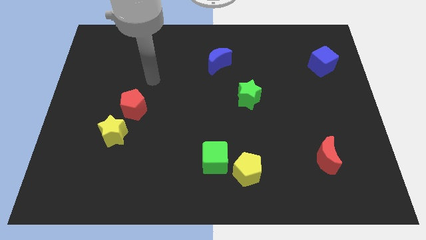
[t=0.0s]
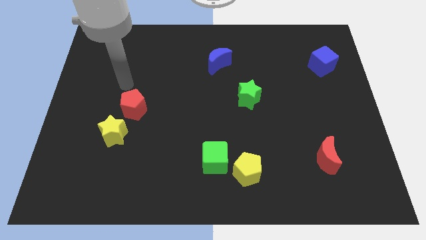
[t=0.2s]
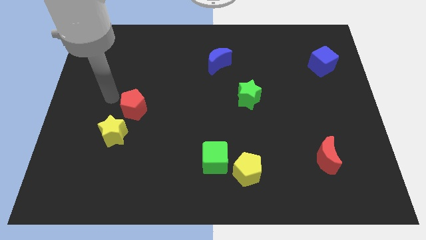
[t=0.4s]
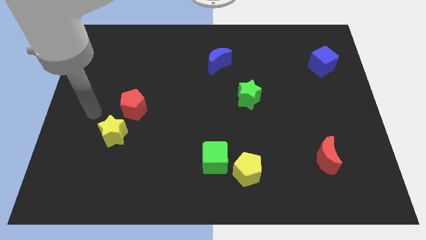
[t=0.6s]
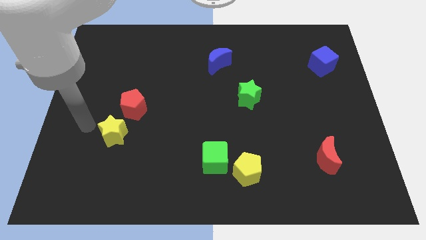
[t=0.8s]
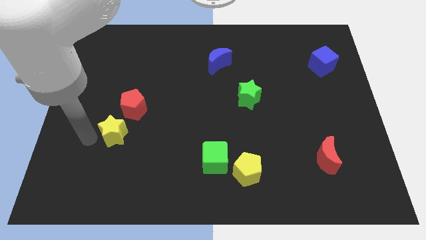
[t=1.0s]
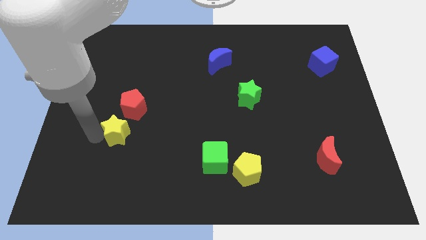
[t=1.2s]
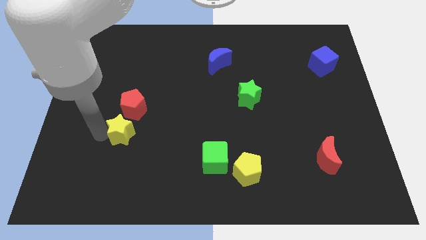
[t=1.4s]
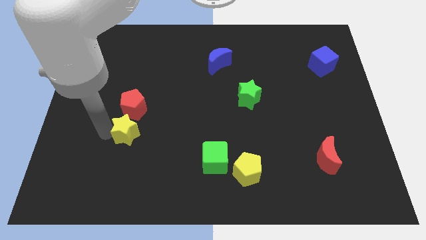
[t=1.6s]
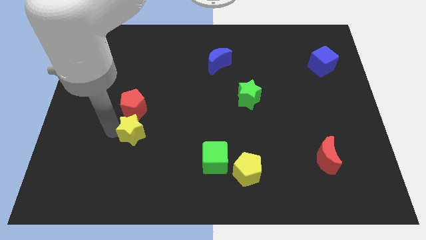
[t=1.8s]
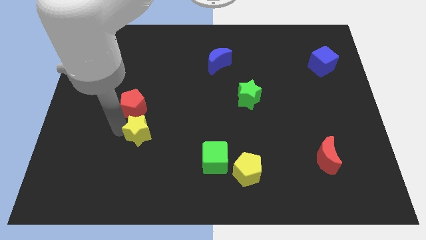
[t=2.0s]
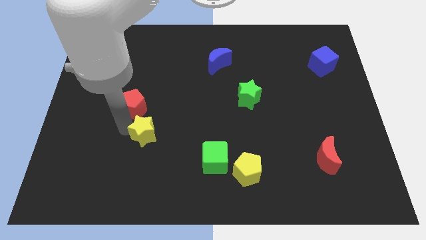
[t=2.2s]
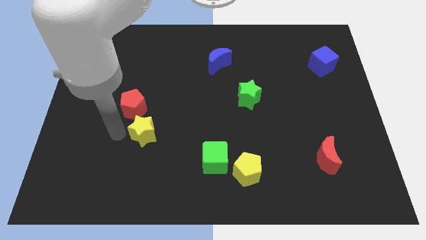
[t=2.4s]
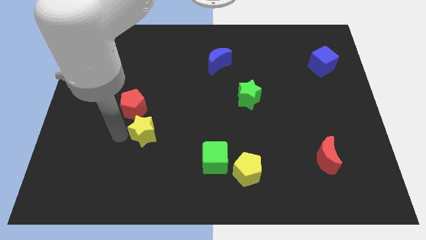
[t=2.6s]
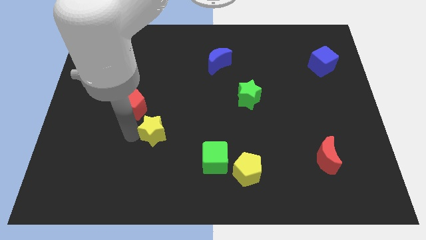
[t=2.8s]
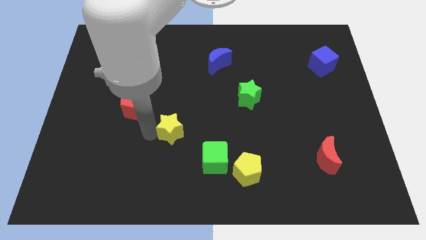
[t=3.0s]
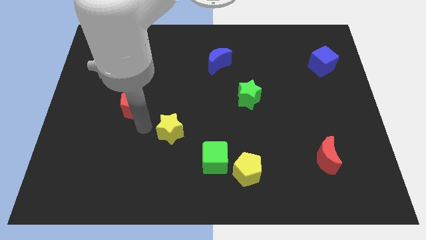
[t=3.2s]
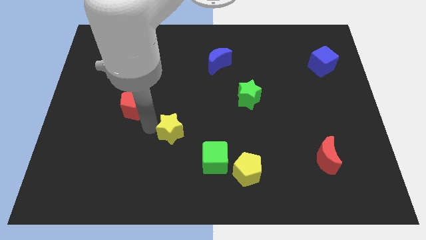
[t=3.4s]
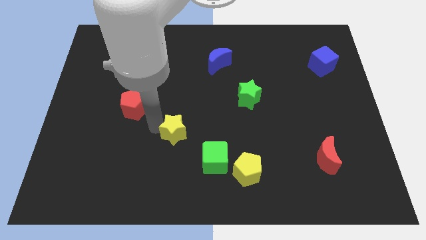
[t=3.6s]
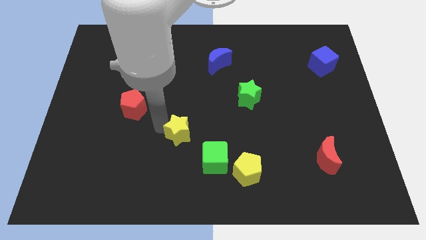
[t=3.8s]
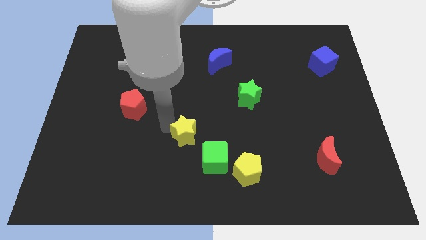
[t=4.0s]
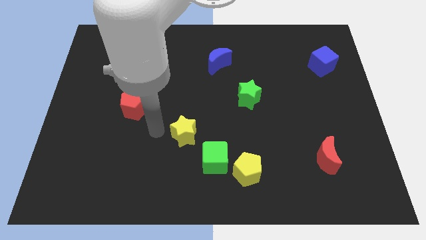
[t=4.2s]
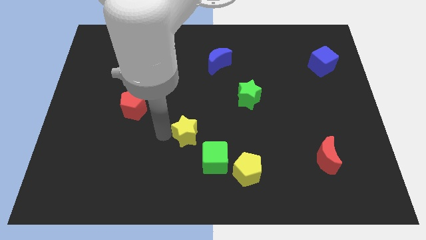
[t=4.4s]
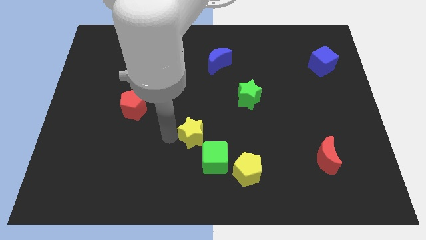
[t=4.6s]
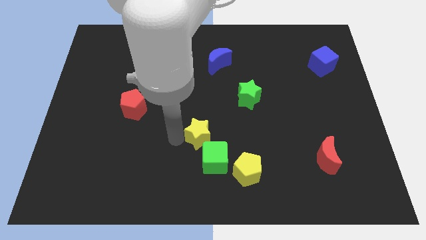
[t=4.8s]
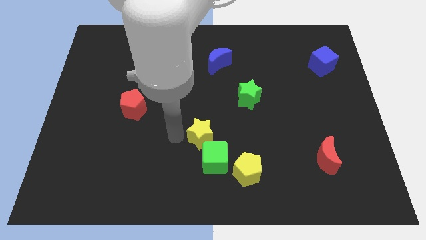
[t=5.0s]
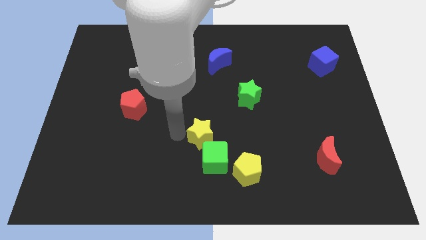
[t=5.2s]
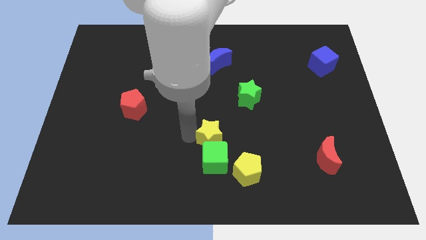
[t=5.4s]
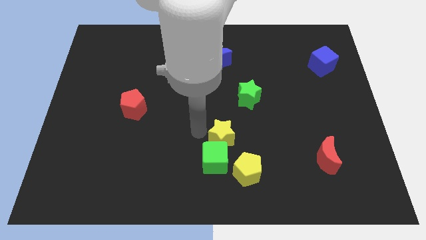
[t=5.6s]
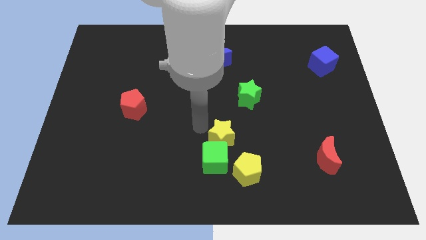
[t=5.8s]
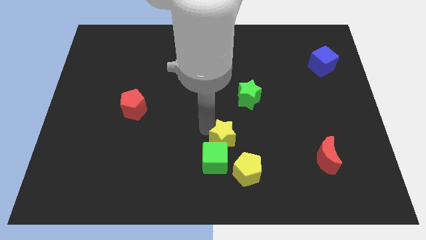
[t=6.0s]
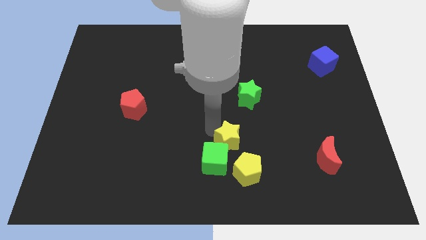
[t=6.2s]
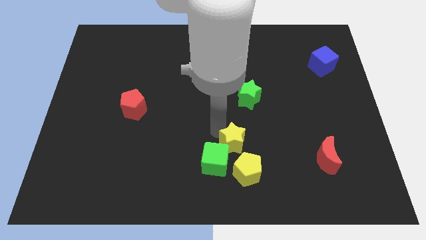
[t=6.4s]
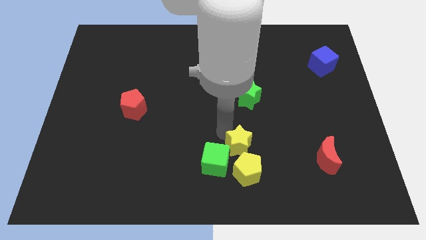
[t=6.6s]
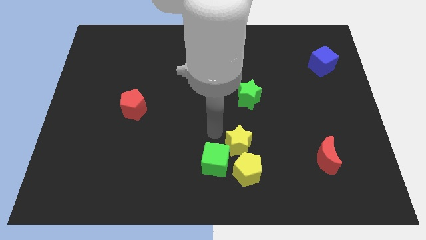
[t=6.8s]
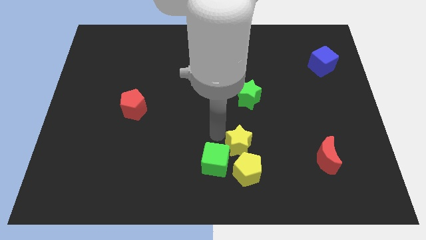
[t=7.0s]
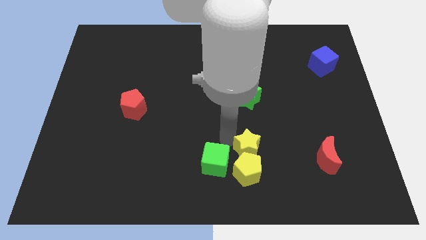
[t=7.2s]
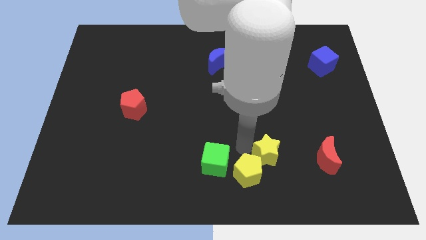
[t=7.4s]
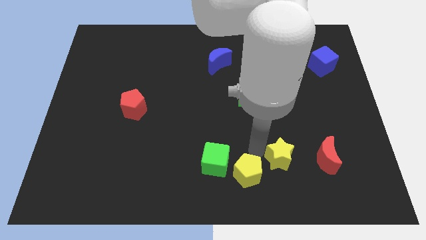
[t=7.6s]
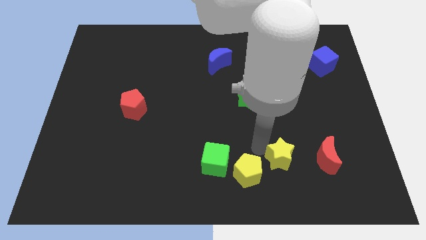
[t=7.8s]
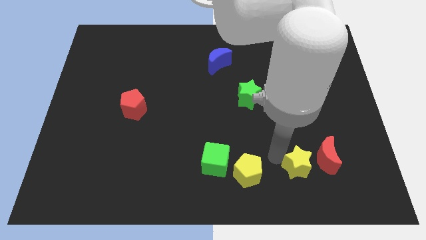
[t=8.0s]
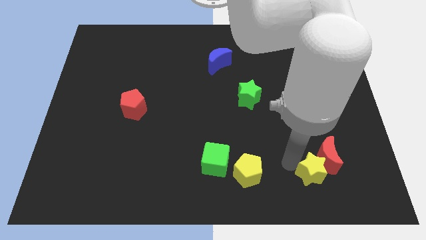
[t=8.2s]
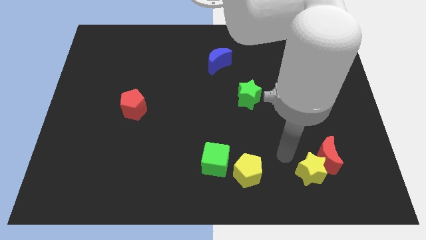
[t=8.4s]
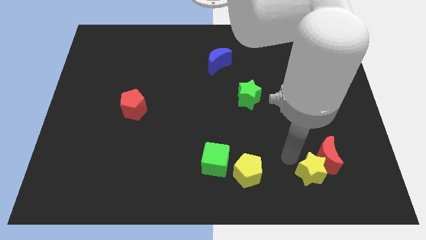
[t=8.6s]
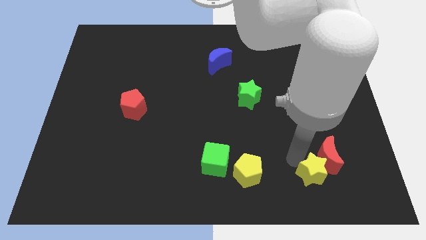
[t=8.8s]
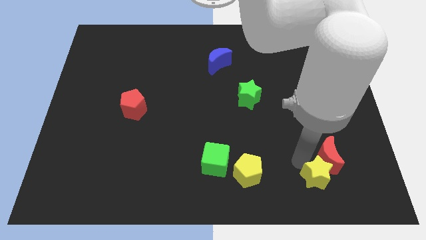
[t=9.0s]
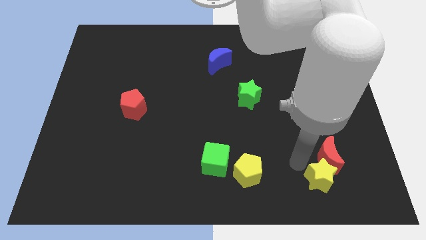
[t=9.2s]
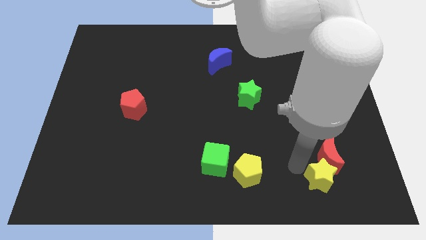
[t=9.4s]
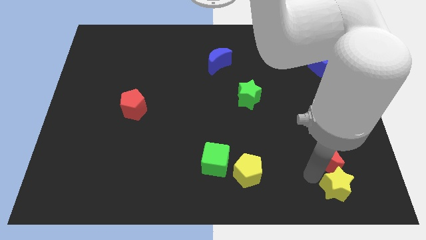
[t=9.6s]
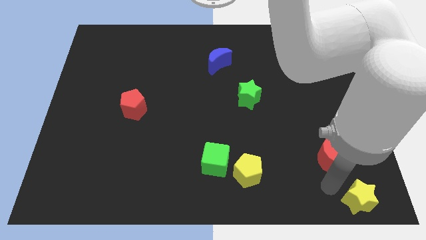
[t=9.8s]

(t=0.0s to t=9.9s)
slide the yellow star to the bottom right

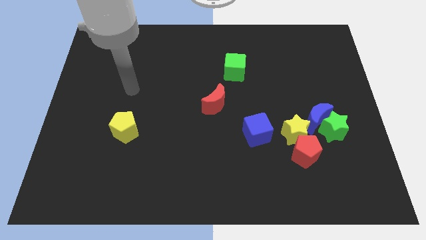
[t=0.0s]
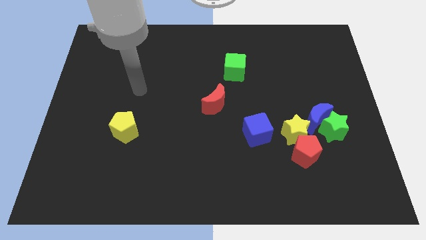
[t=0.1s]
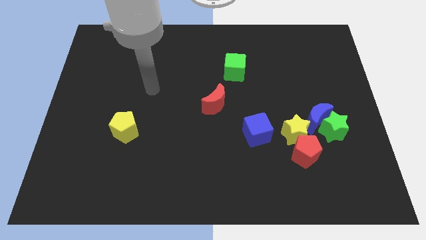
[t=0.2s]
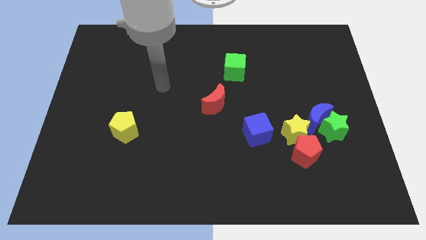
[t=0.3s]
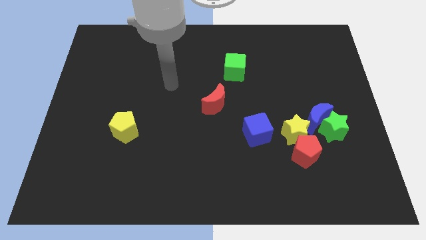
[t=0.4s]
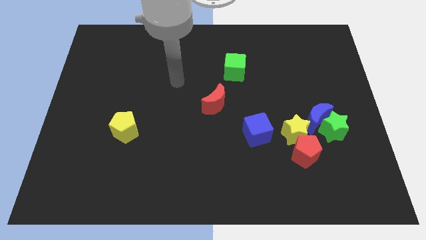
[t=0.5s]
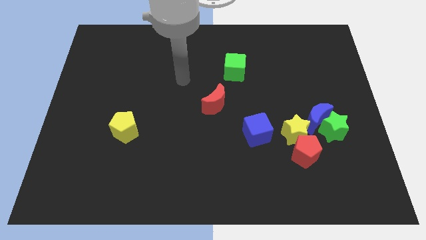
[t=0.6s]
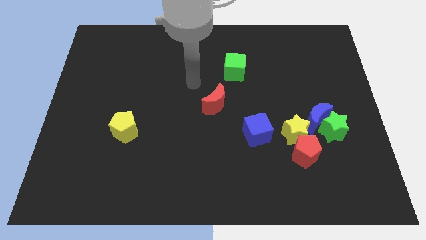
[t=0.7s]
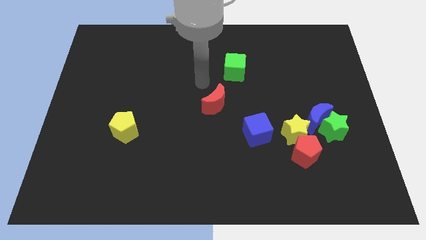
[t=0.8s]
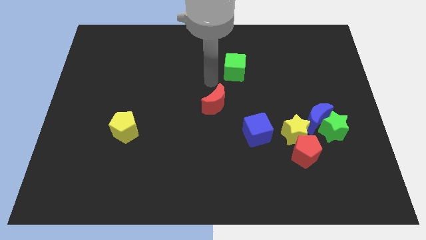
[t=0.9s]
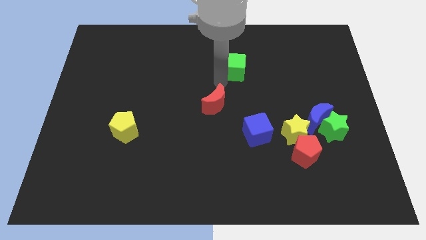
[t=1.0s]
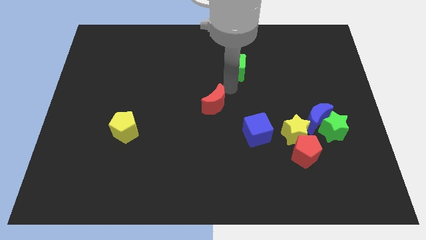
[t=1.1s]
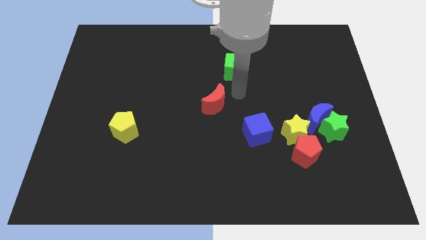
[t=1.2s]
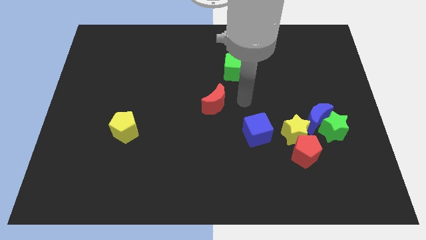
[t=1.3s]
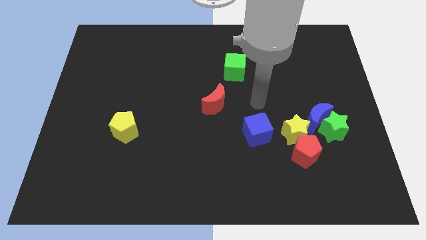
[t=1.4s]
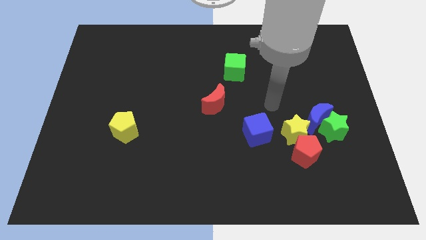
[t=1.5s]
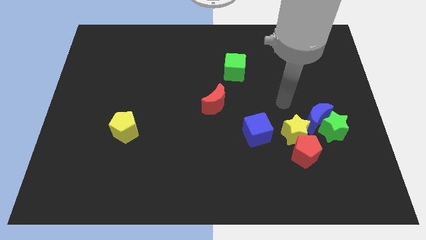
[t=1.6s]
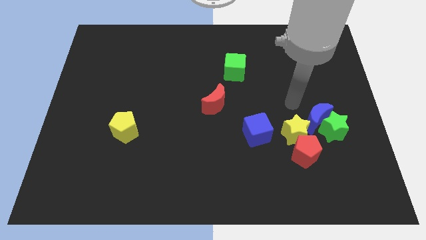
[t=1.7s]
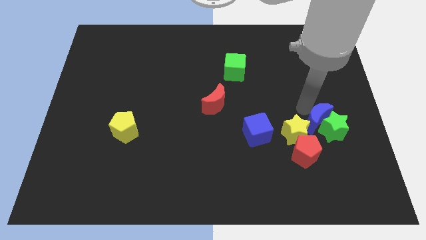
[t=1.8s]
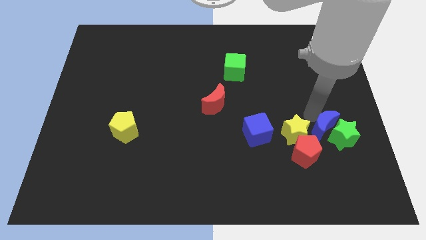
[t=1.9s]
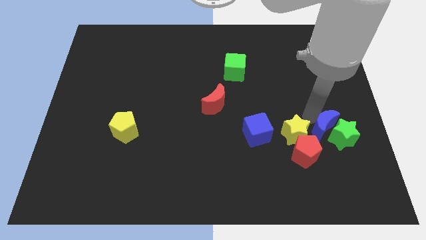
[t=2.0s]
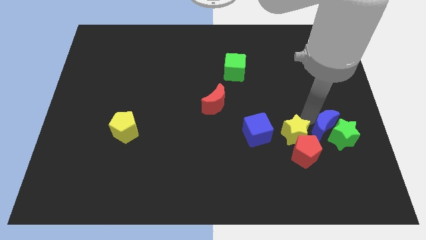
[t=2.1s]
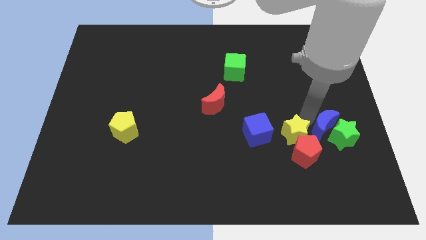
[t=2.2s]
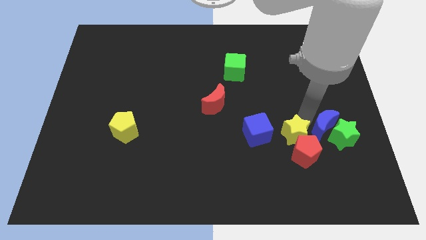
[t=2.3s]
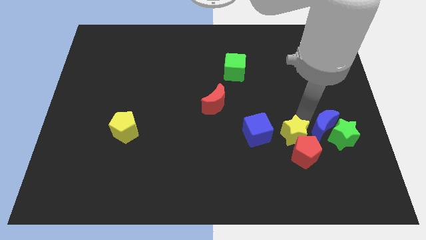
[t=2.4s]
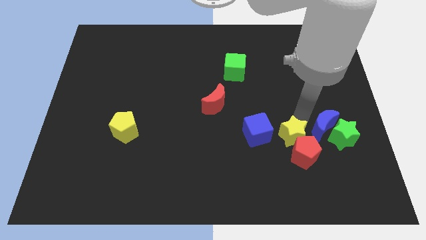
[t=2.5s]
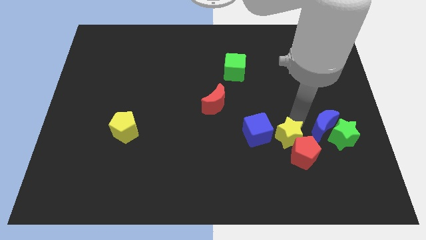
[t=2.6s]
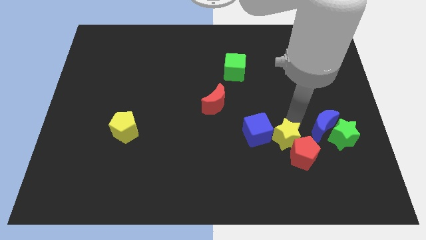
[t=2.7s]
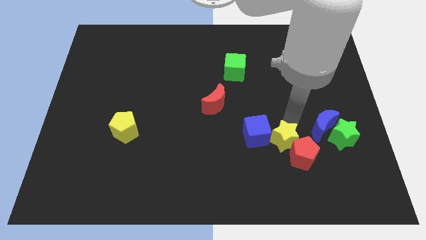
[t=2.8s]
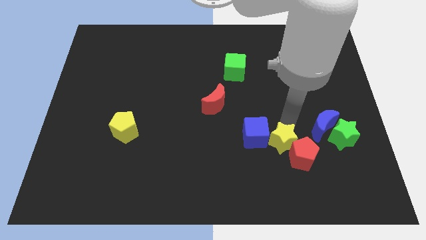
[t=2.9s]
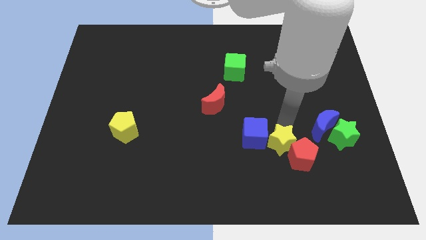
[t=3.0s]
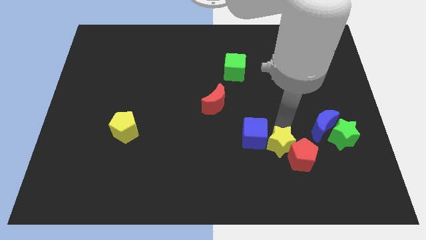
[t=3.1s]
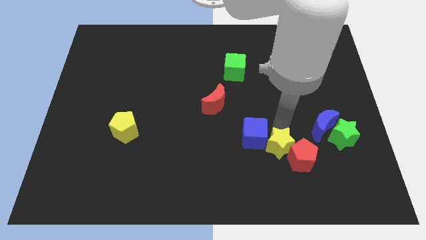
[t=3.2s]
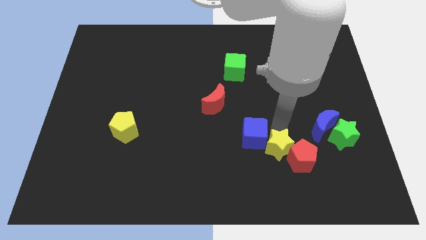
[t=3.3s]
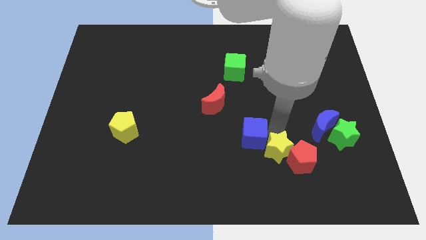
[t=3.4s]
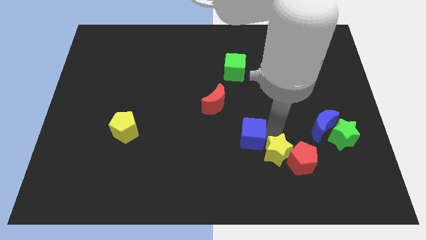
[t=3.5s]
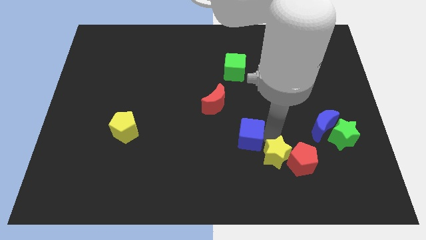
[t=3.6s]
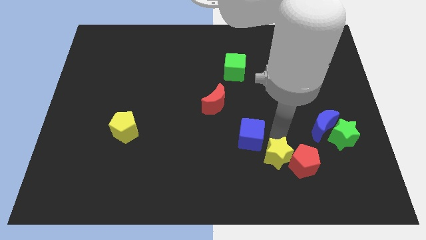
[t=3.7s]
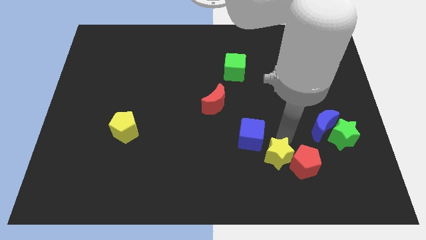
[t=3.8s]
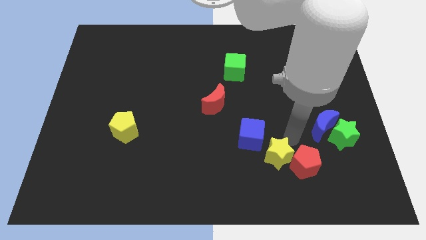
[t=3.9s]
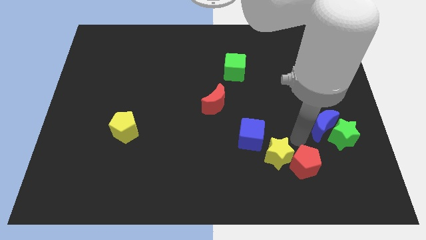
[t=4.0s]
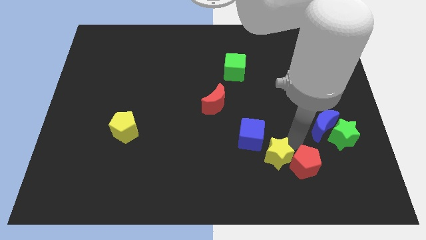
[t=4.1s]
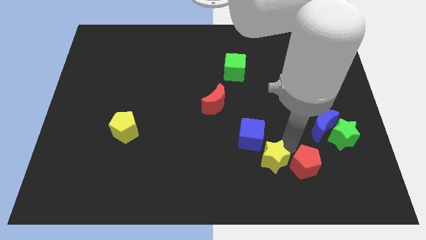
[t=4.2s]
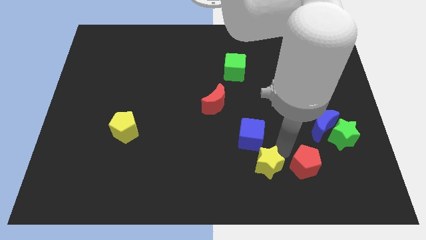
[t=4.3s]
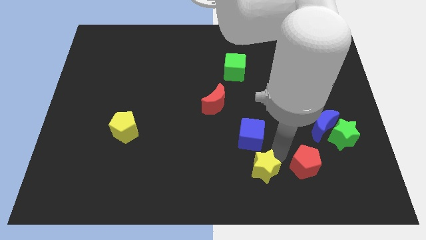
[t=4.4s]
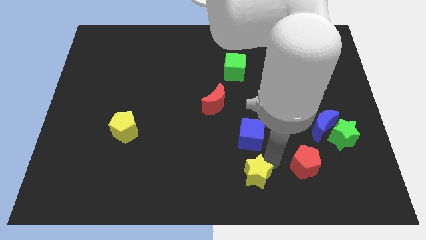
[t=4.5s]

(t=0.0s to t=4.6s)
push the yellow star to the bottom
